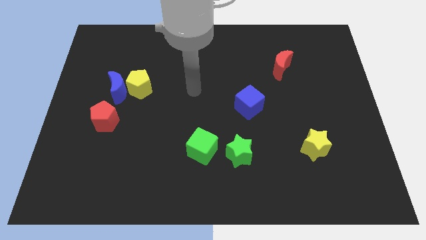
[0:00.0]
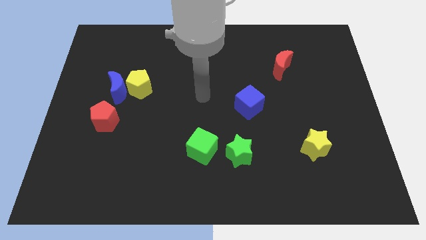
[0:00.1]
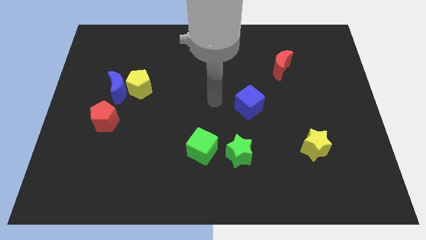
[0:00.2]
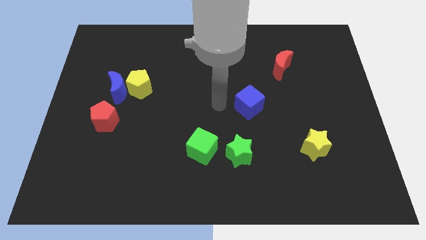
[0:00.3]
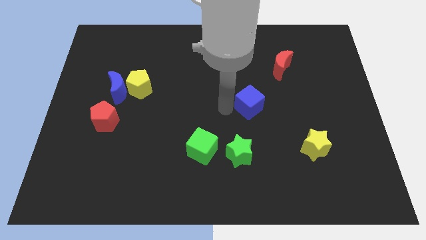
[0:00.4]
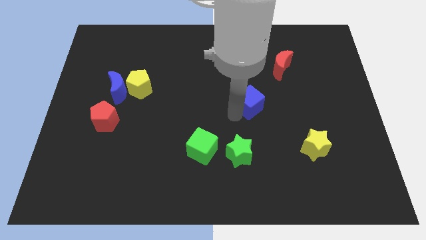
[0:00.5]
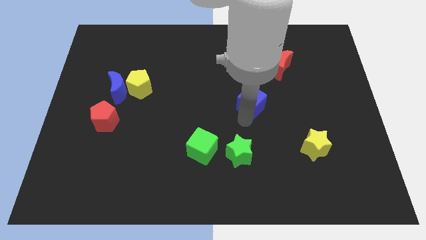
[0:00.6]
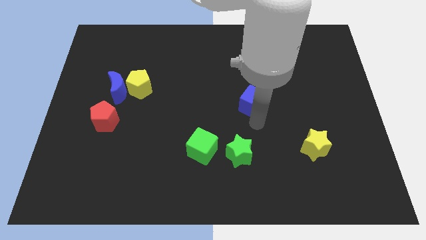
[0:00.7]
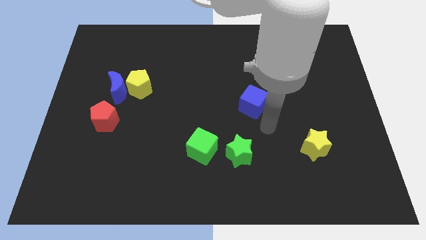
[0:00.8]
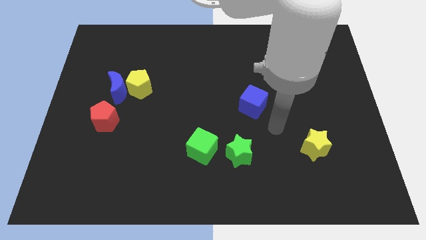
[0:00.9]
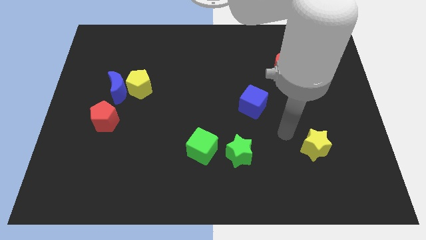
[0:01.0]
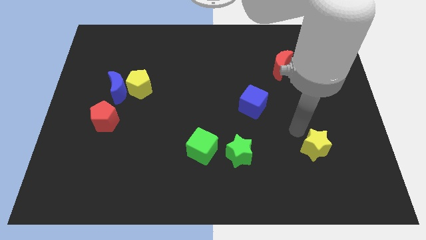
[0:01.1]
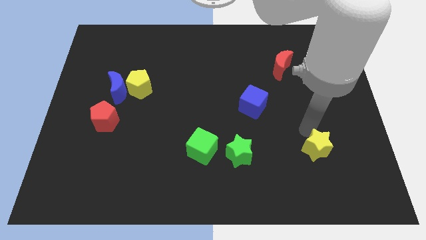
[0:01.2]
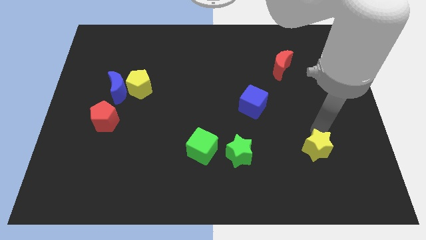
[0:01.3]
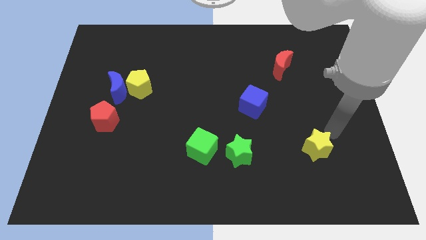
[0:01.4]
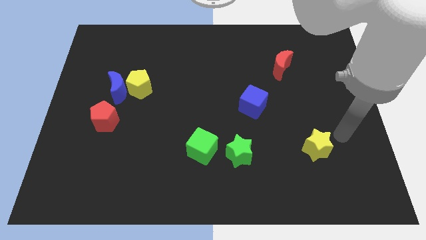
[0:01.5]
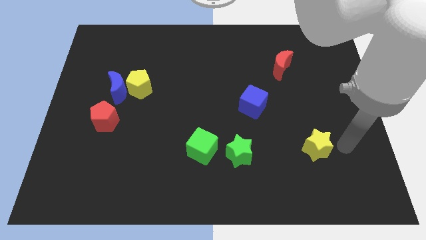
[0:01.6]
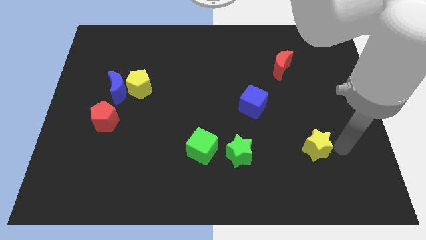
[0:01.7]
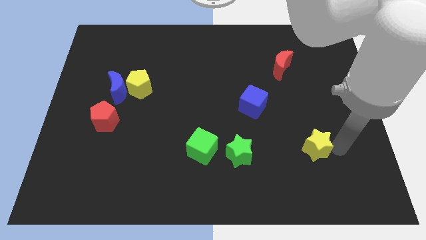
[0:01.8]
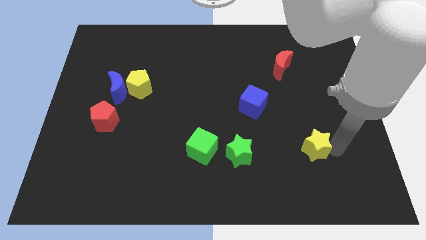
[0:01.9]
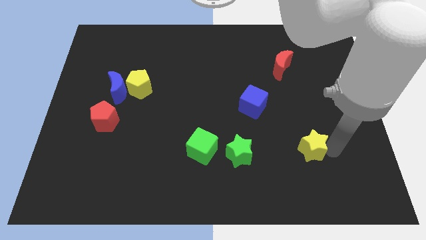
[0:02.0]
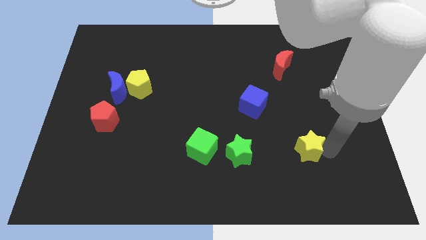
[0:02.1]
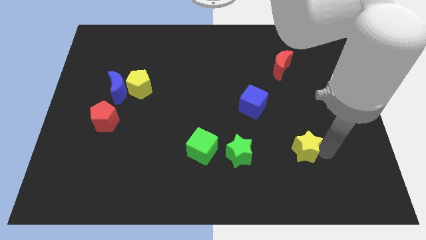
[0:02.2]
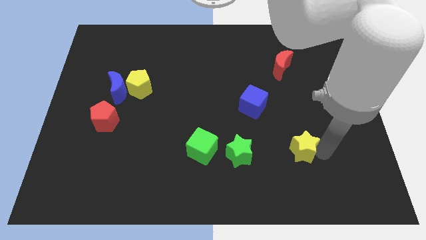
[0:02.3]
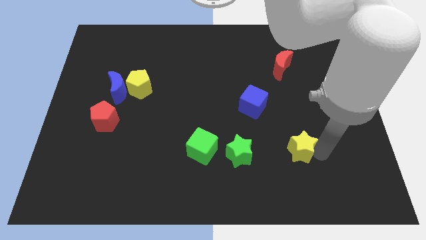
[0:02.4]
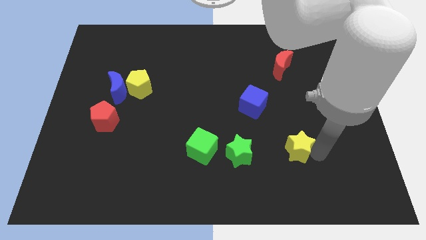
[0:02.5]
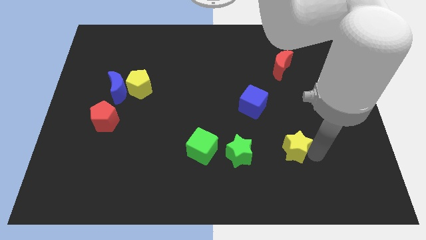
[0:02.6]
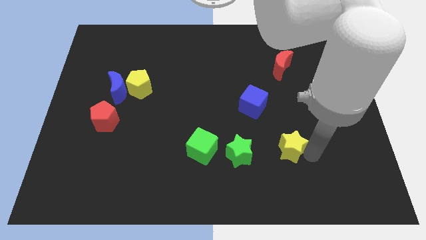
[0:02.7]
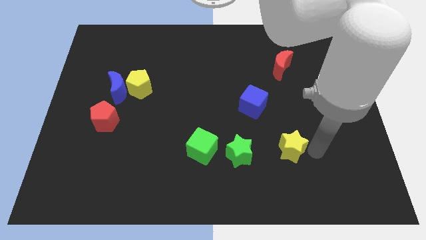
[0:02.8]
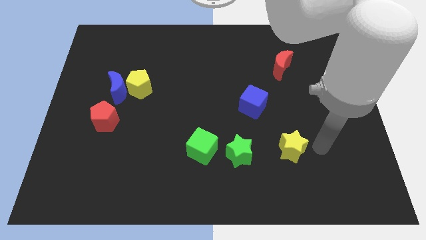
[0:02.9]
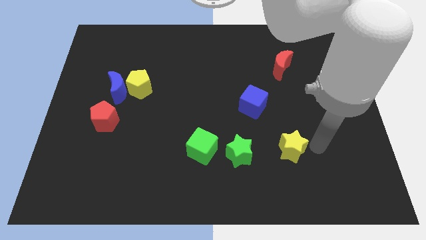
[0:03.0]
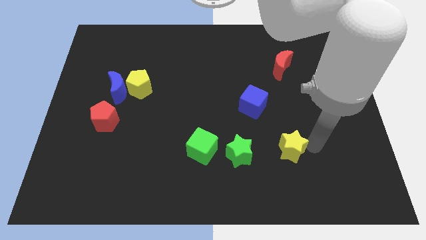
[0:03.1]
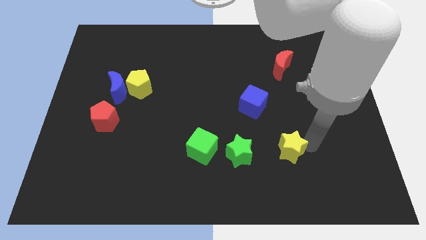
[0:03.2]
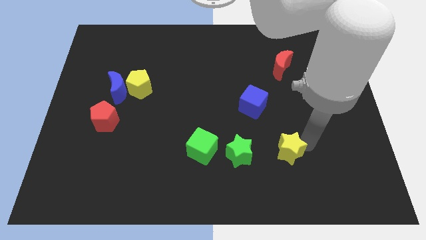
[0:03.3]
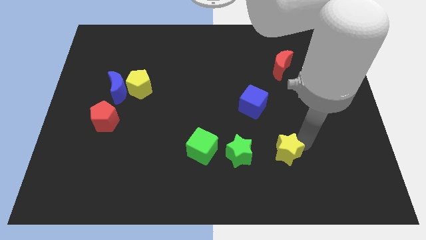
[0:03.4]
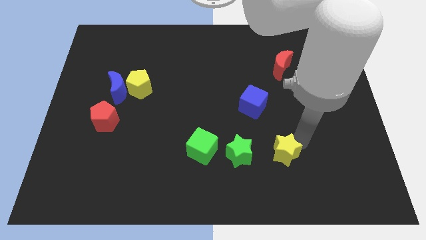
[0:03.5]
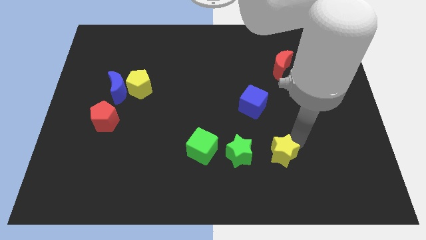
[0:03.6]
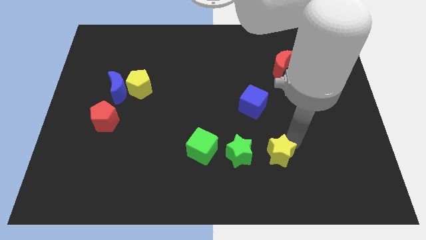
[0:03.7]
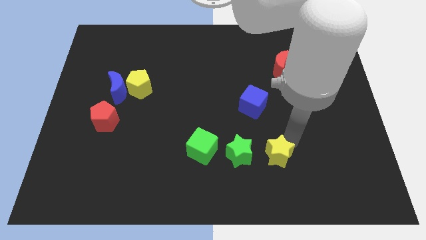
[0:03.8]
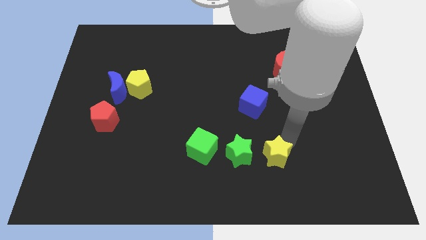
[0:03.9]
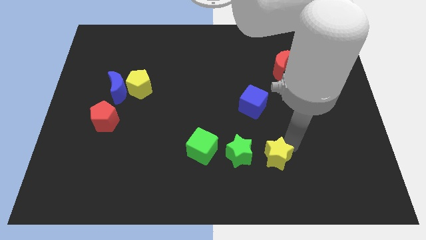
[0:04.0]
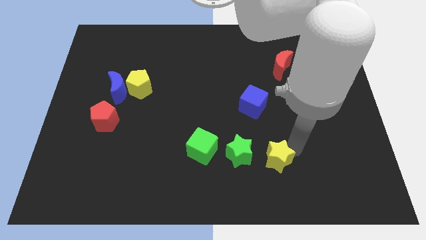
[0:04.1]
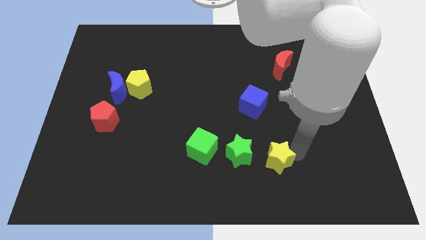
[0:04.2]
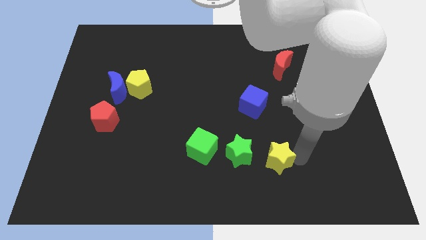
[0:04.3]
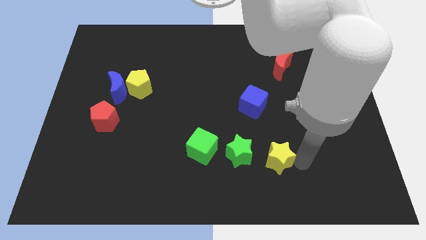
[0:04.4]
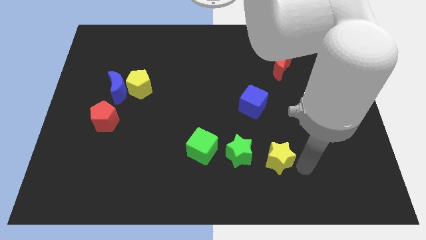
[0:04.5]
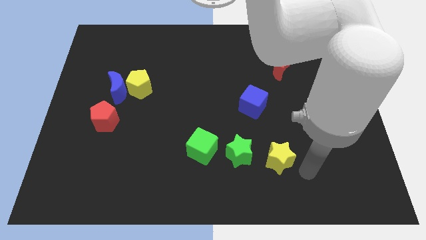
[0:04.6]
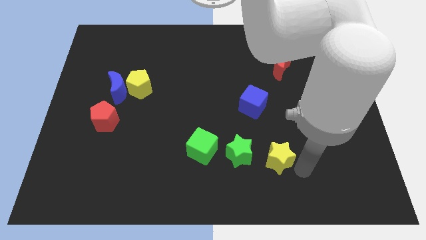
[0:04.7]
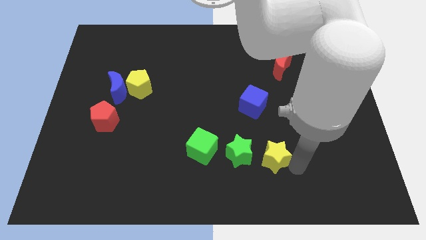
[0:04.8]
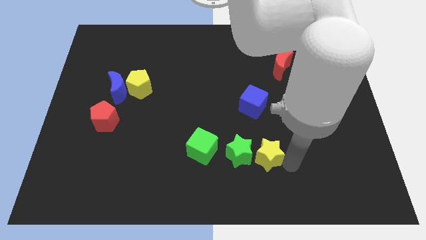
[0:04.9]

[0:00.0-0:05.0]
put the yellow star close to the green star

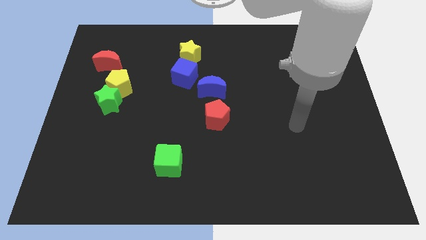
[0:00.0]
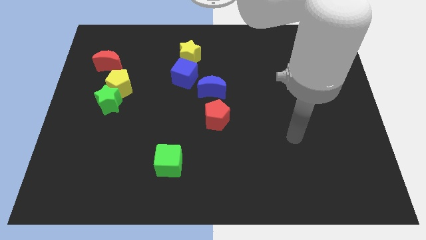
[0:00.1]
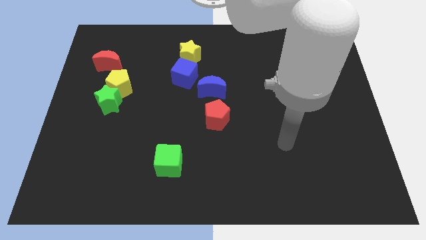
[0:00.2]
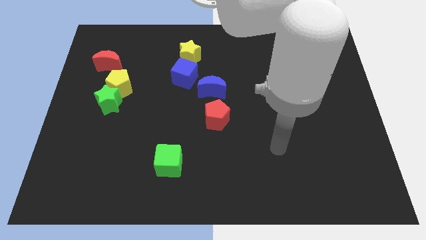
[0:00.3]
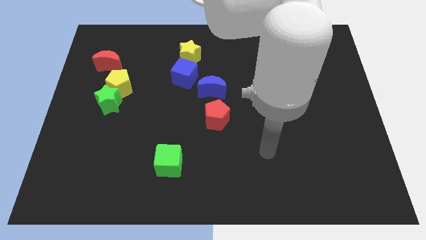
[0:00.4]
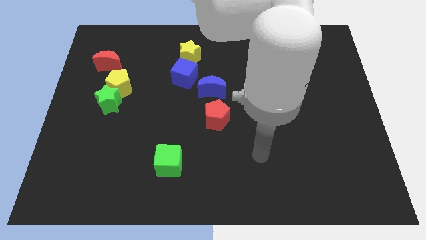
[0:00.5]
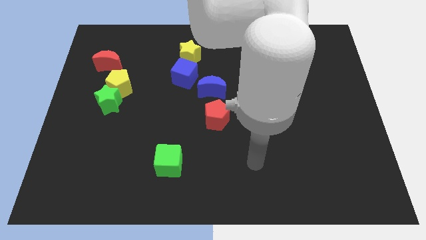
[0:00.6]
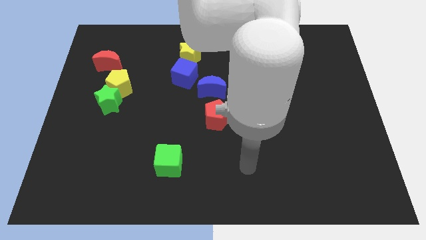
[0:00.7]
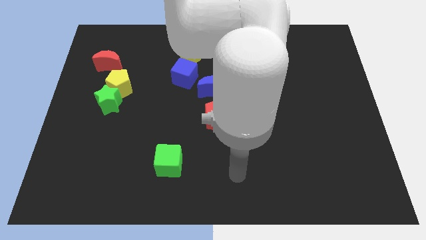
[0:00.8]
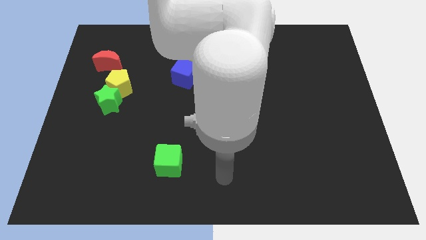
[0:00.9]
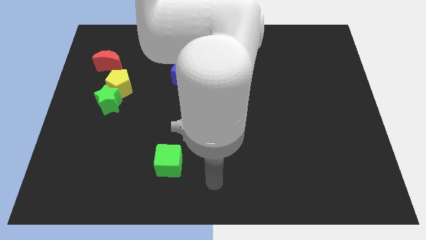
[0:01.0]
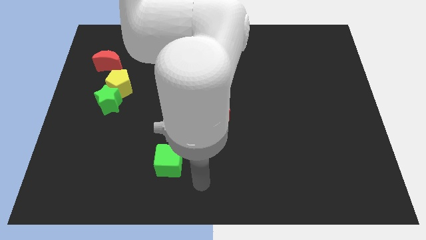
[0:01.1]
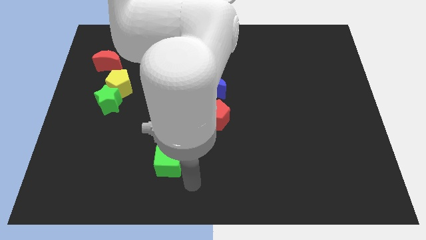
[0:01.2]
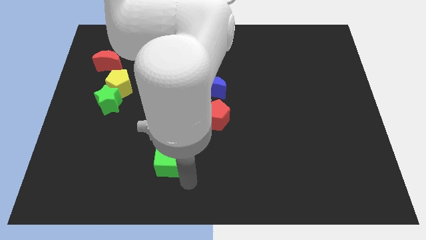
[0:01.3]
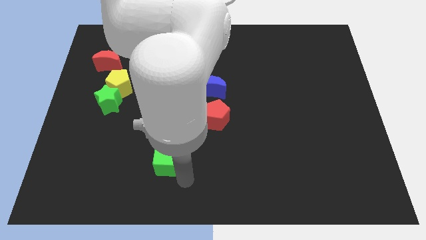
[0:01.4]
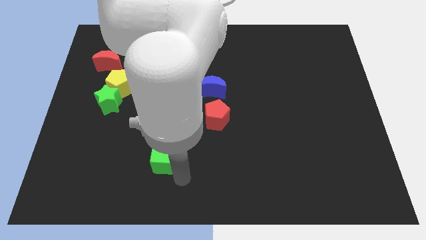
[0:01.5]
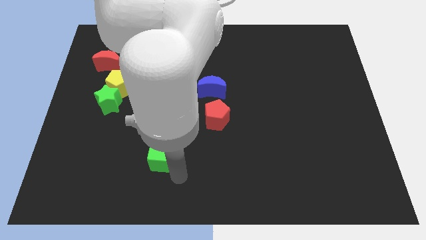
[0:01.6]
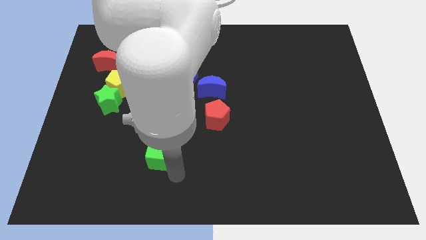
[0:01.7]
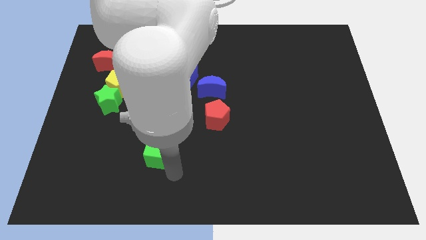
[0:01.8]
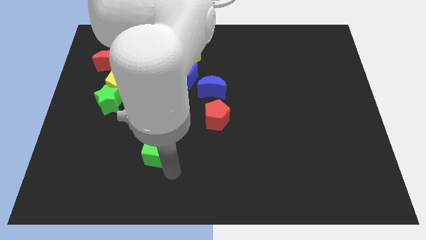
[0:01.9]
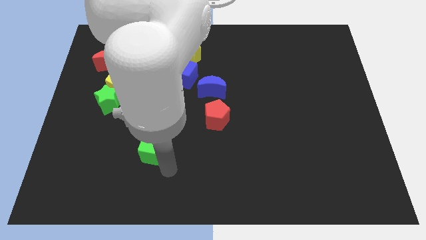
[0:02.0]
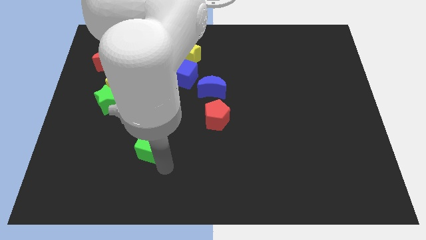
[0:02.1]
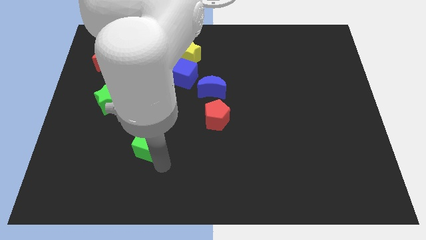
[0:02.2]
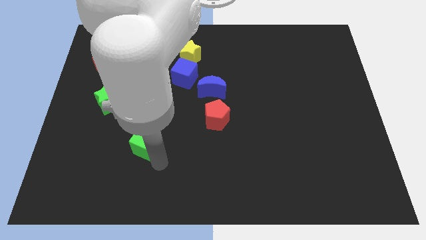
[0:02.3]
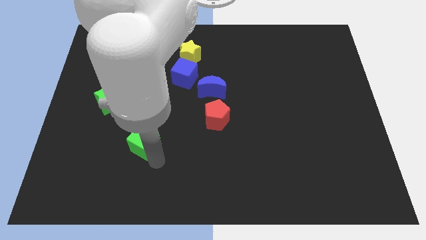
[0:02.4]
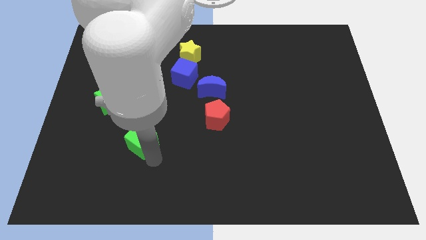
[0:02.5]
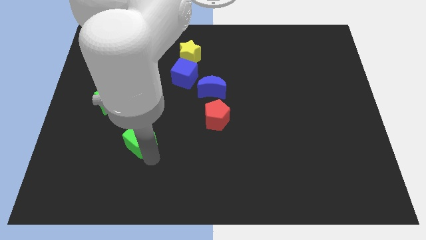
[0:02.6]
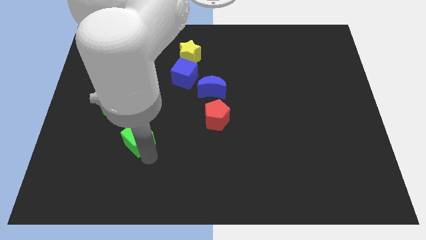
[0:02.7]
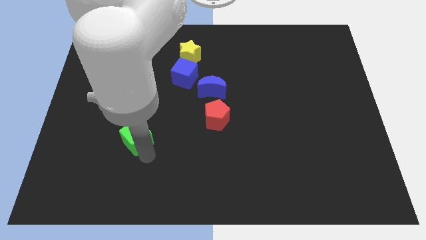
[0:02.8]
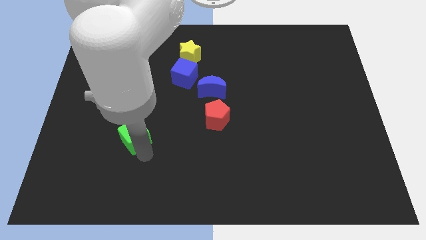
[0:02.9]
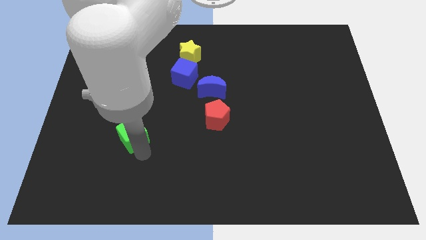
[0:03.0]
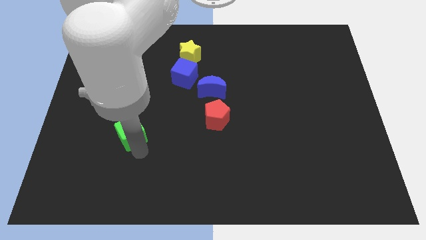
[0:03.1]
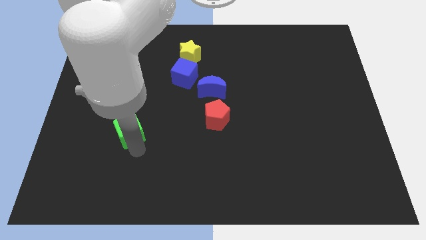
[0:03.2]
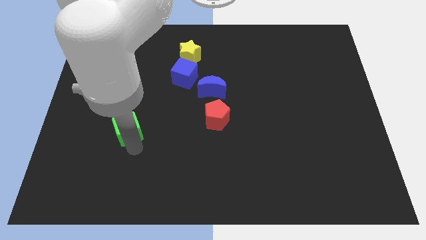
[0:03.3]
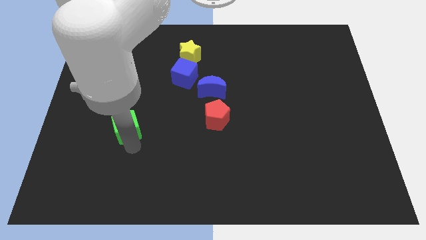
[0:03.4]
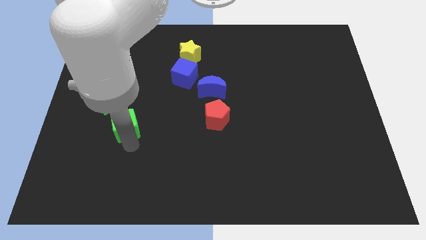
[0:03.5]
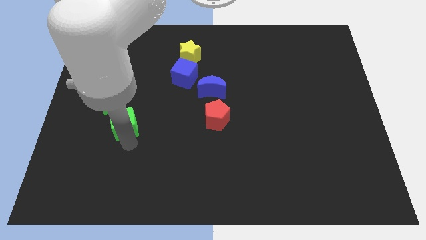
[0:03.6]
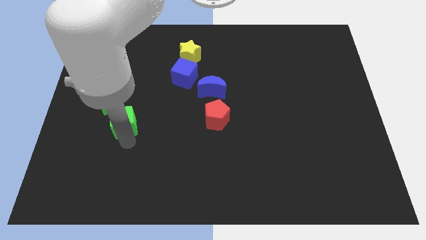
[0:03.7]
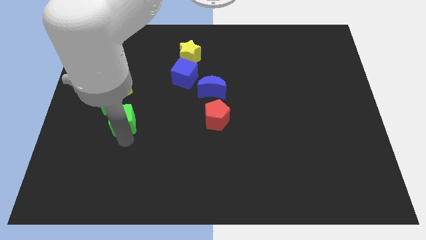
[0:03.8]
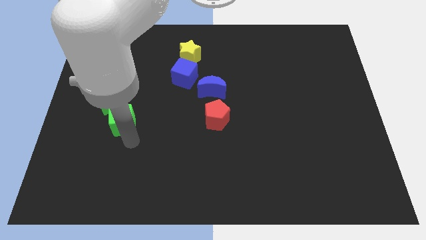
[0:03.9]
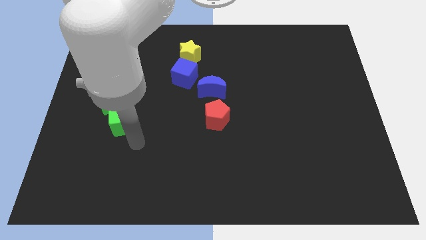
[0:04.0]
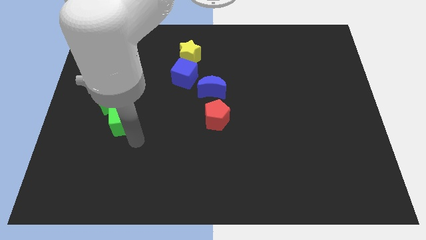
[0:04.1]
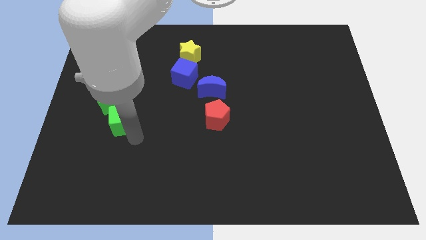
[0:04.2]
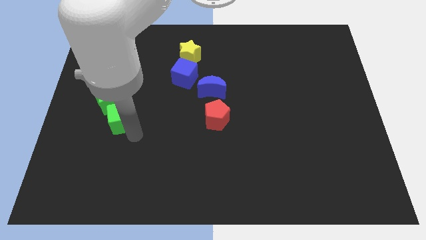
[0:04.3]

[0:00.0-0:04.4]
slide the green cube to the green star
